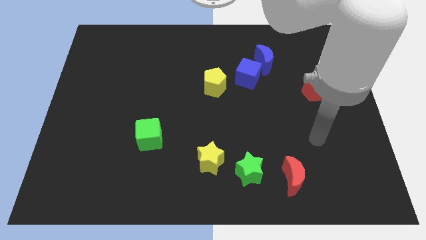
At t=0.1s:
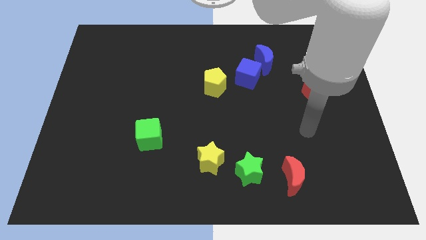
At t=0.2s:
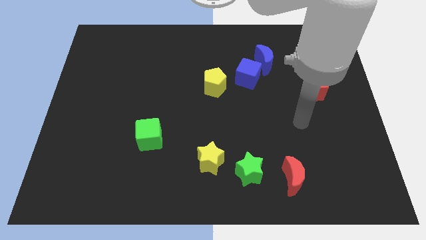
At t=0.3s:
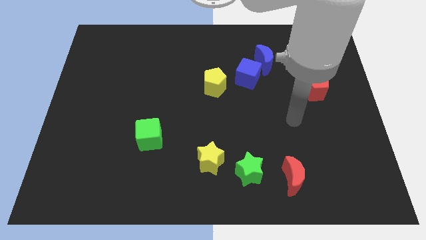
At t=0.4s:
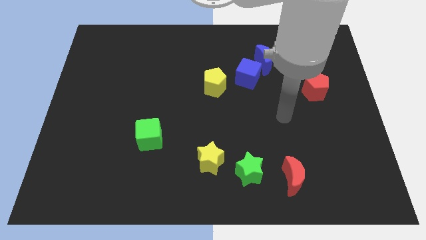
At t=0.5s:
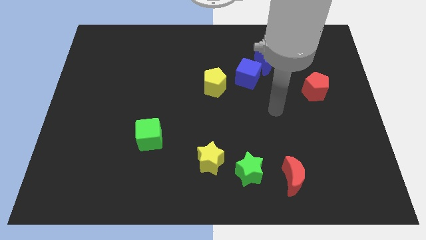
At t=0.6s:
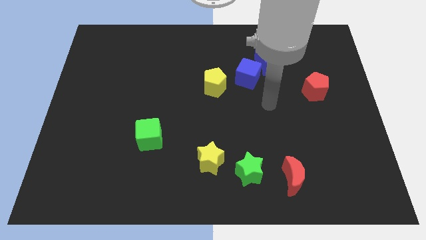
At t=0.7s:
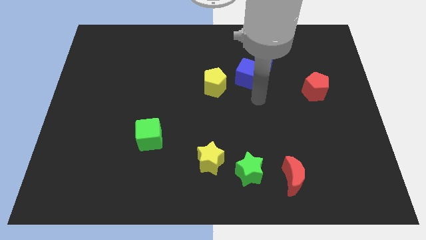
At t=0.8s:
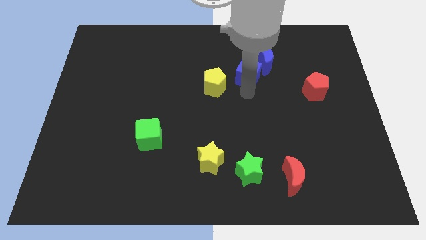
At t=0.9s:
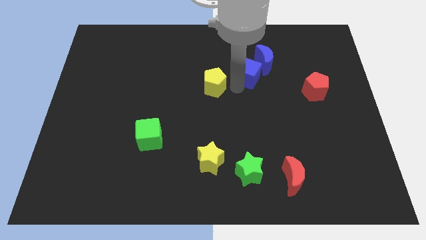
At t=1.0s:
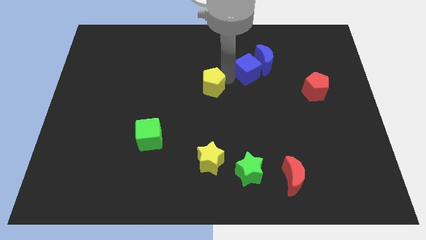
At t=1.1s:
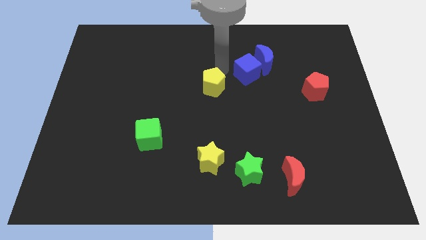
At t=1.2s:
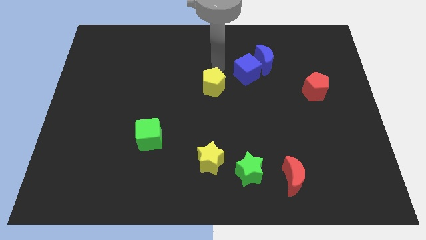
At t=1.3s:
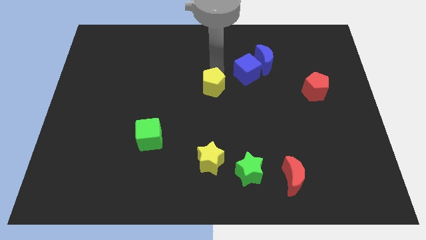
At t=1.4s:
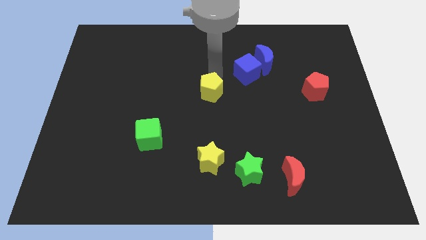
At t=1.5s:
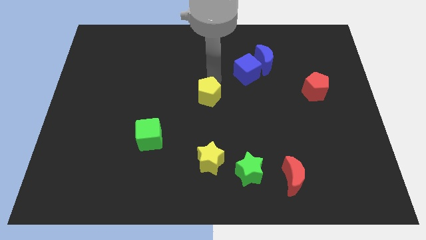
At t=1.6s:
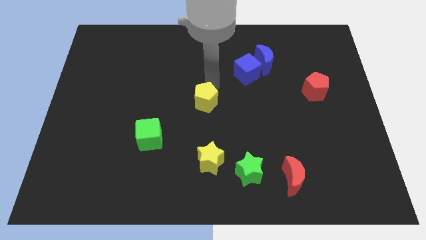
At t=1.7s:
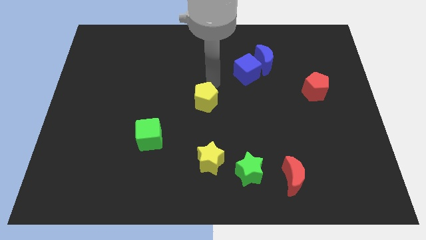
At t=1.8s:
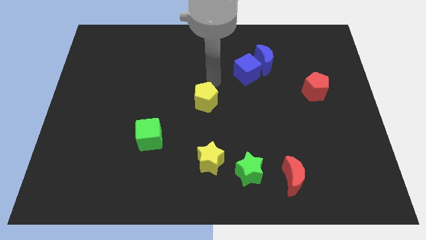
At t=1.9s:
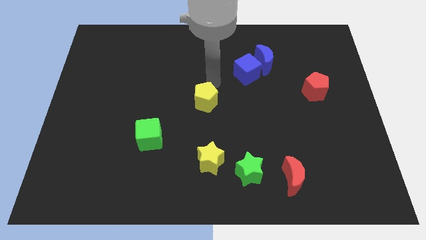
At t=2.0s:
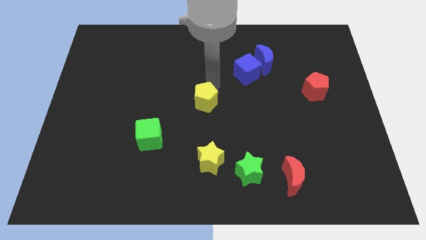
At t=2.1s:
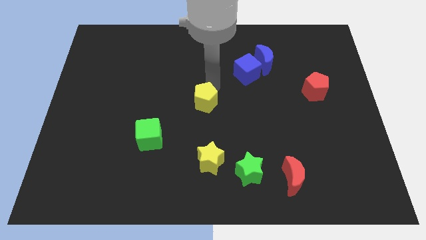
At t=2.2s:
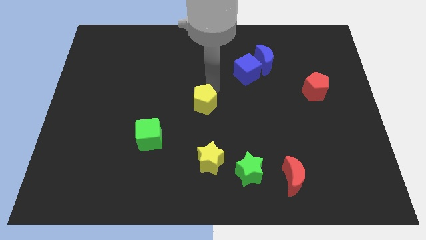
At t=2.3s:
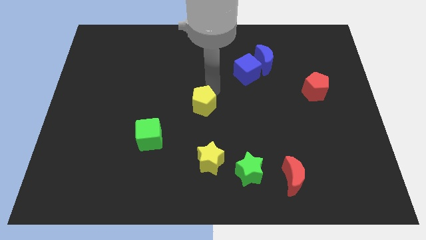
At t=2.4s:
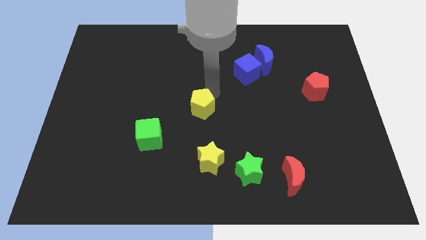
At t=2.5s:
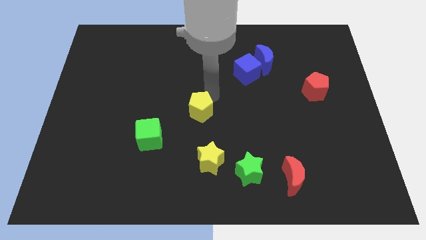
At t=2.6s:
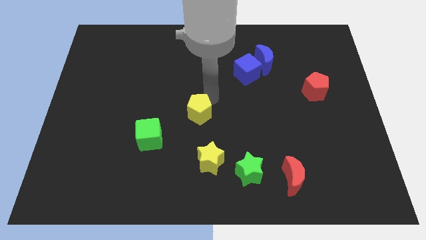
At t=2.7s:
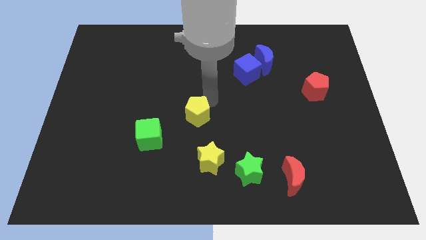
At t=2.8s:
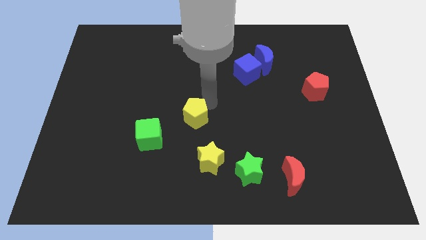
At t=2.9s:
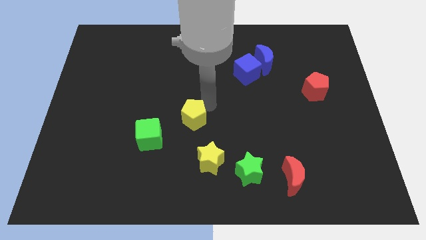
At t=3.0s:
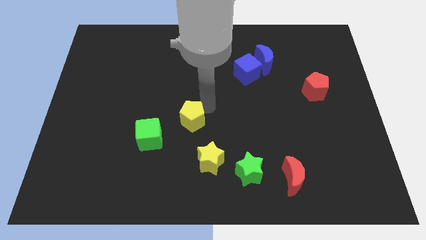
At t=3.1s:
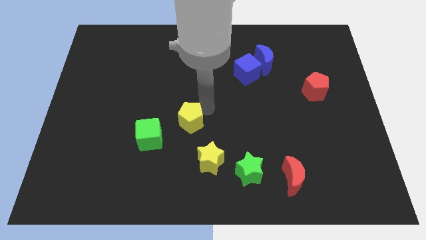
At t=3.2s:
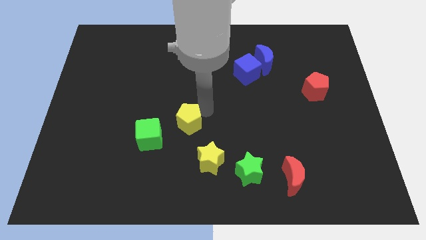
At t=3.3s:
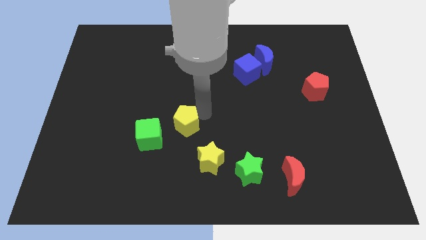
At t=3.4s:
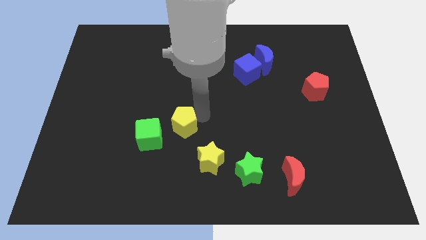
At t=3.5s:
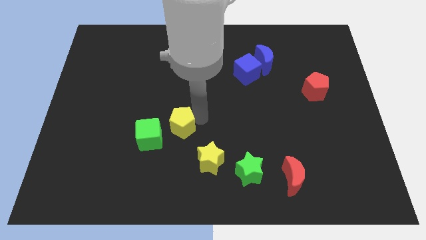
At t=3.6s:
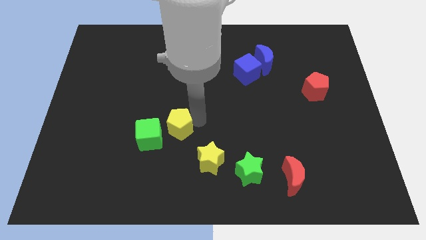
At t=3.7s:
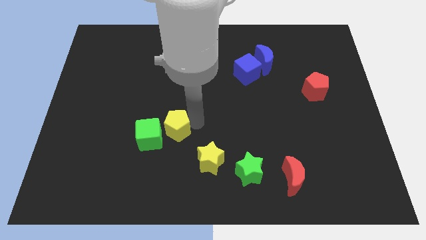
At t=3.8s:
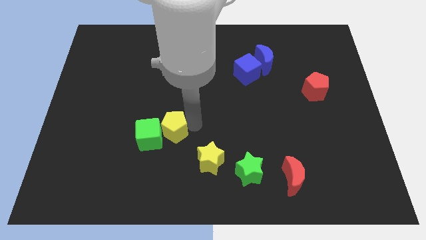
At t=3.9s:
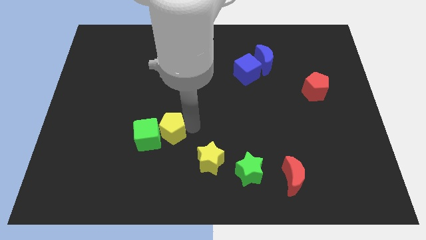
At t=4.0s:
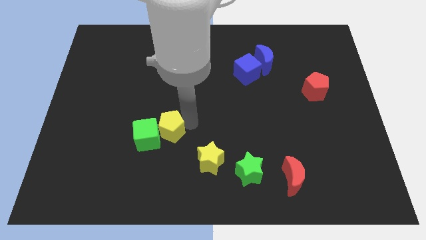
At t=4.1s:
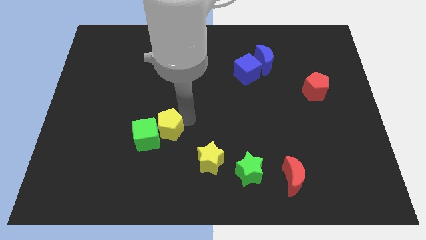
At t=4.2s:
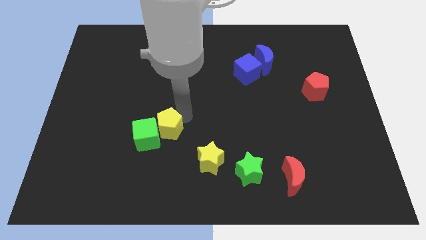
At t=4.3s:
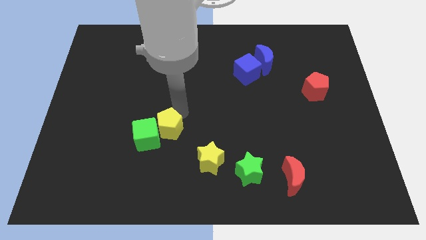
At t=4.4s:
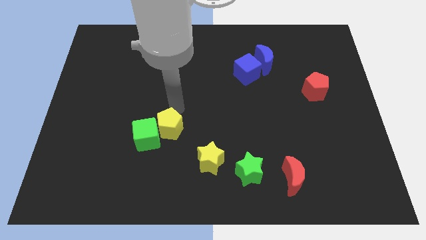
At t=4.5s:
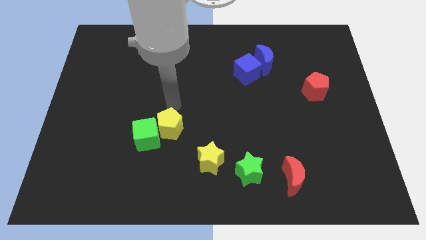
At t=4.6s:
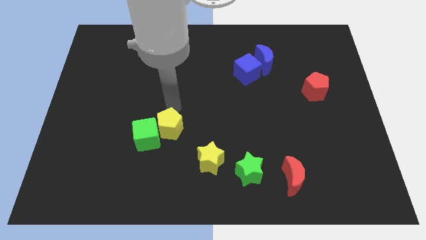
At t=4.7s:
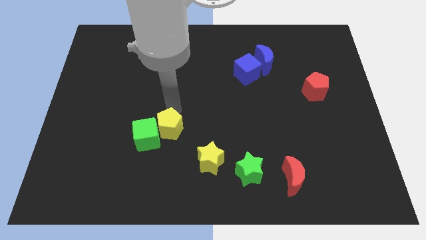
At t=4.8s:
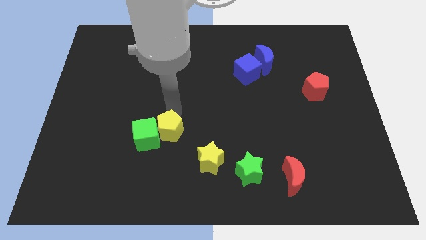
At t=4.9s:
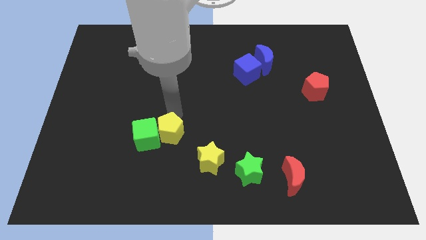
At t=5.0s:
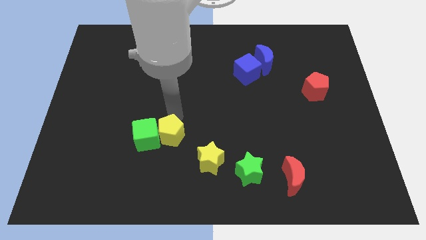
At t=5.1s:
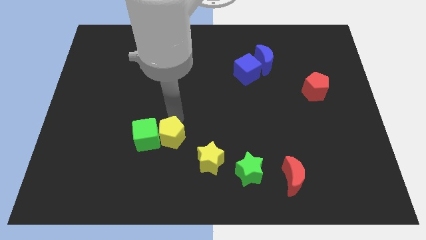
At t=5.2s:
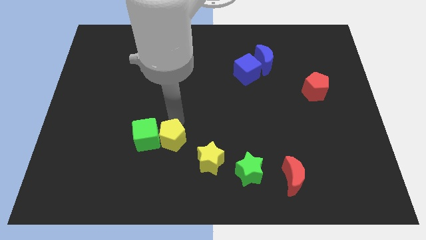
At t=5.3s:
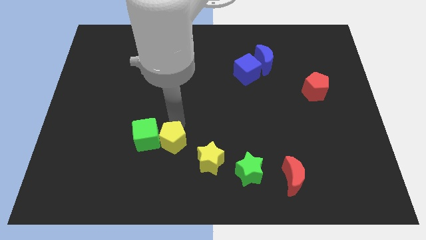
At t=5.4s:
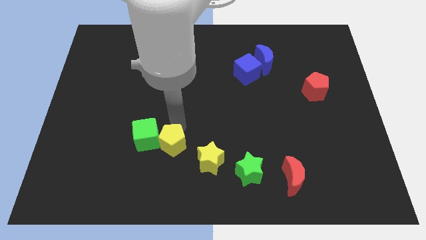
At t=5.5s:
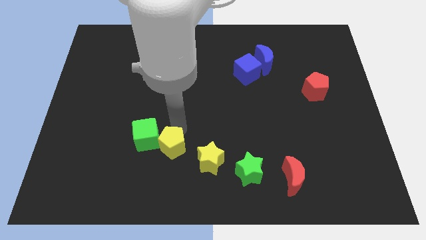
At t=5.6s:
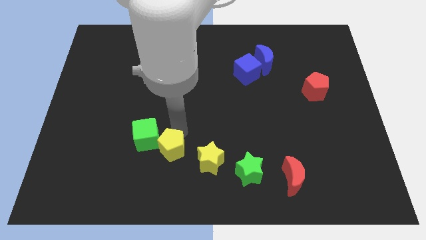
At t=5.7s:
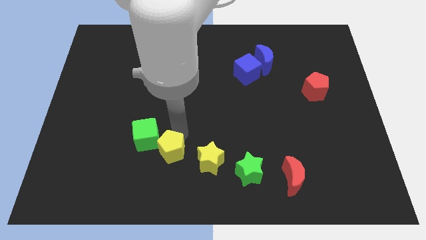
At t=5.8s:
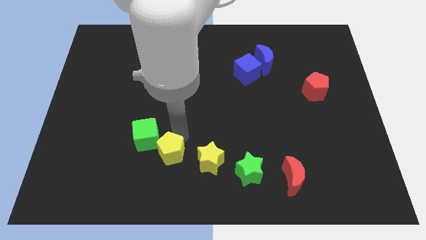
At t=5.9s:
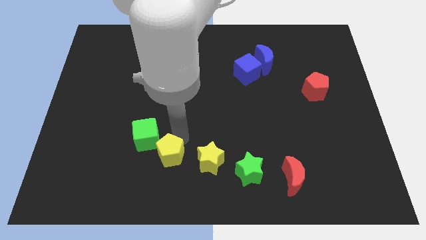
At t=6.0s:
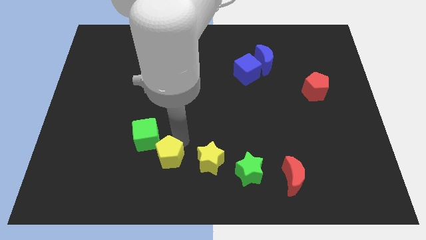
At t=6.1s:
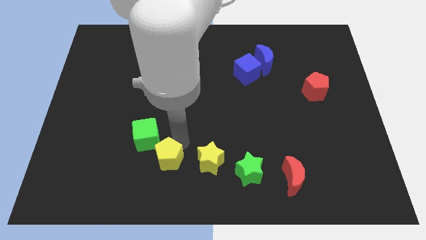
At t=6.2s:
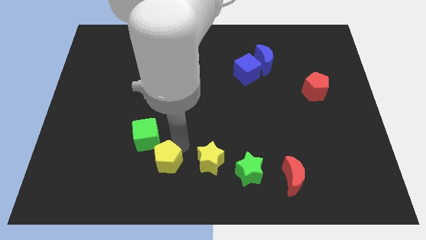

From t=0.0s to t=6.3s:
move the yellow pentagon below the green cube
